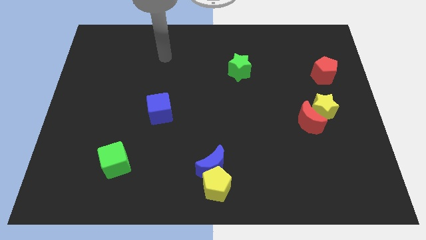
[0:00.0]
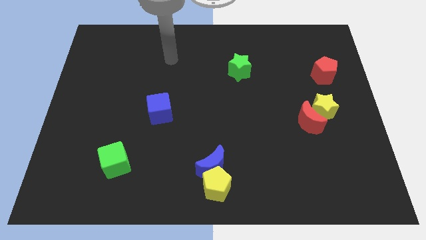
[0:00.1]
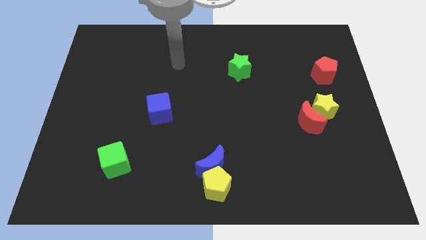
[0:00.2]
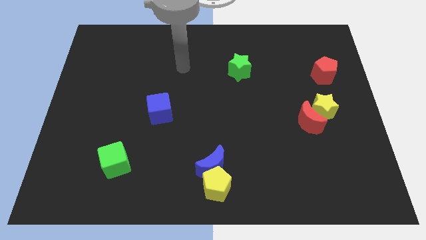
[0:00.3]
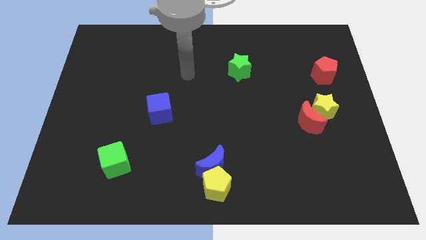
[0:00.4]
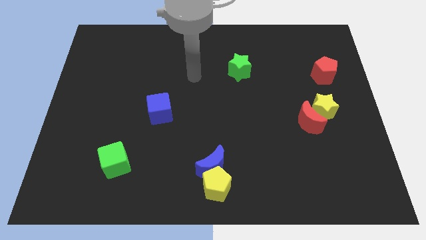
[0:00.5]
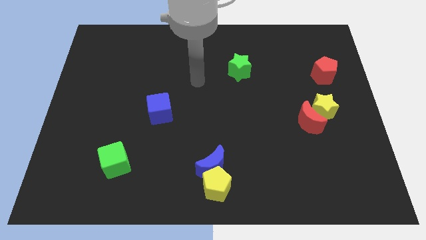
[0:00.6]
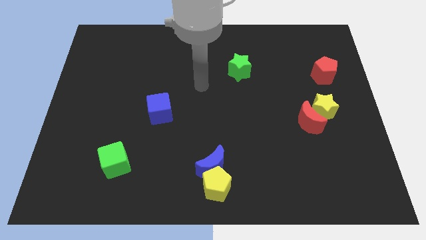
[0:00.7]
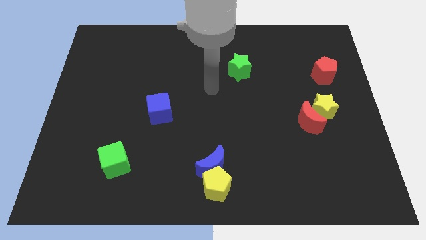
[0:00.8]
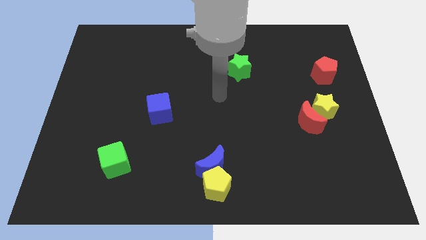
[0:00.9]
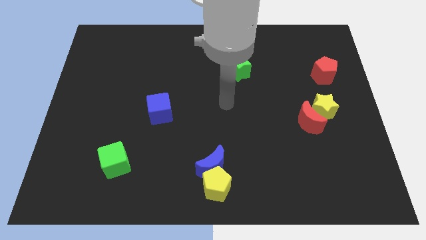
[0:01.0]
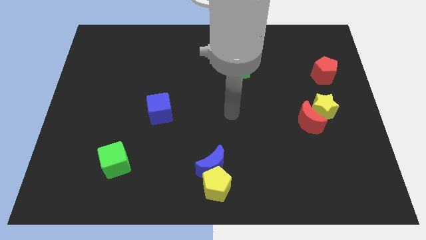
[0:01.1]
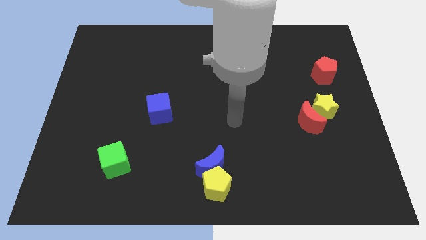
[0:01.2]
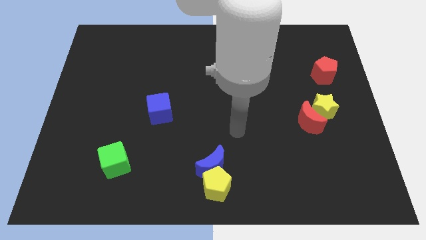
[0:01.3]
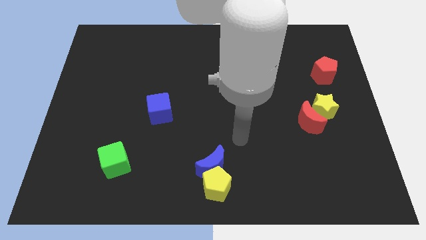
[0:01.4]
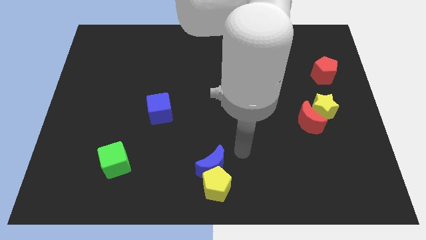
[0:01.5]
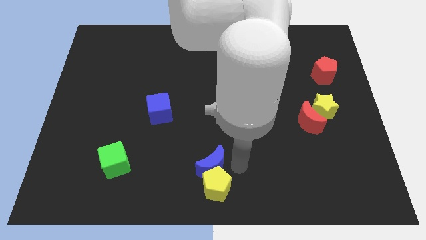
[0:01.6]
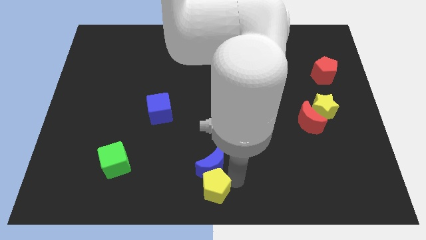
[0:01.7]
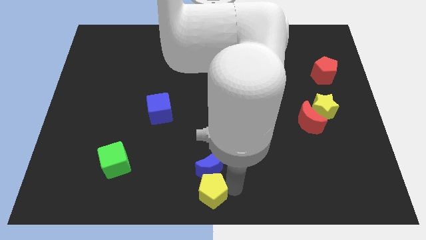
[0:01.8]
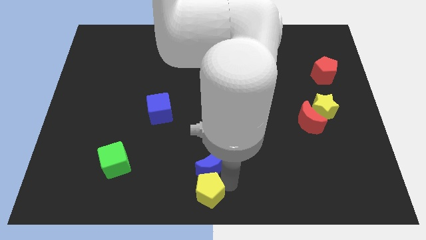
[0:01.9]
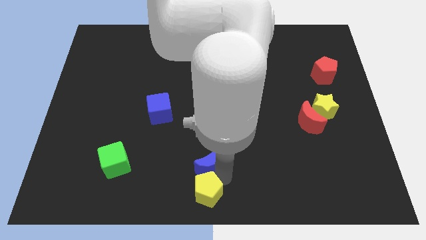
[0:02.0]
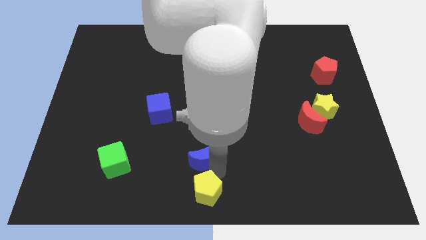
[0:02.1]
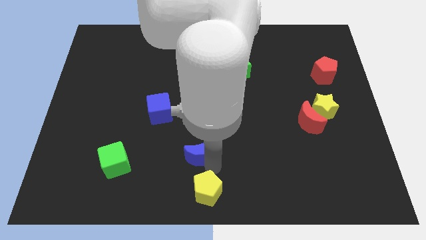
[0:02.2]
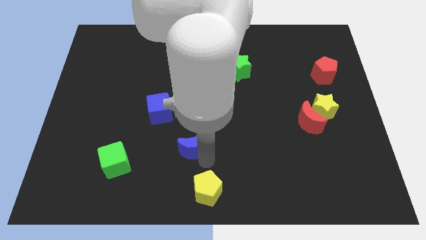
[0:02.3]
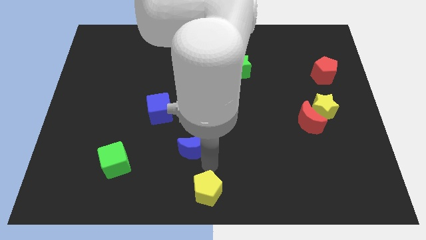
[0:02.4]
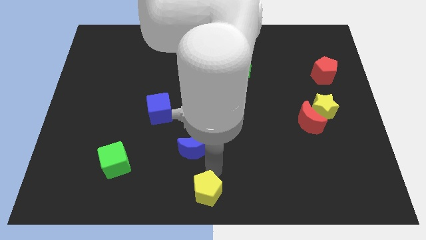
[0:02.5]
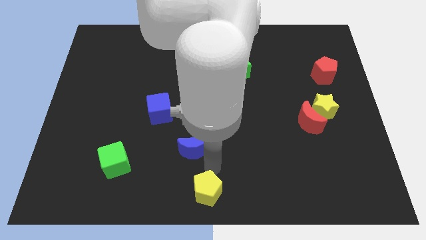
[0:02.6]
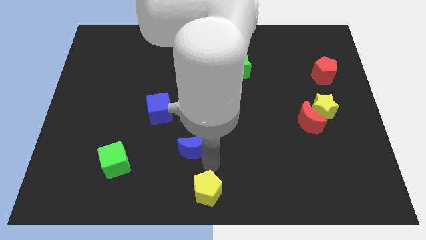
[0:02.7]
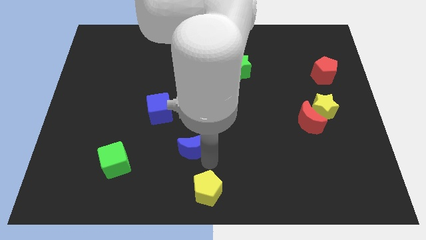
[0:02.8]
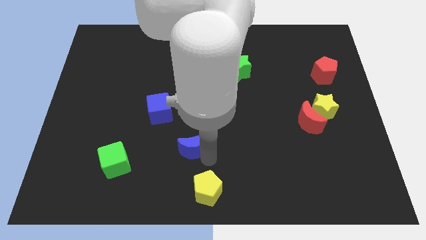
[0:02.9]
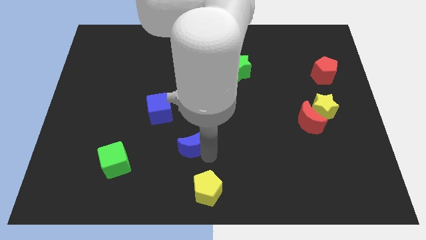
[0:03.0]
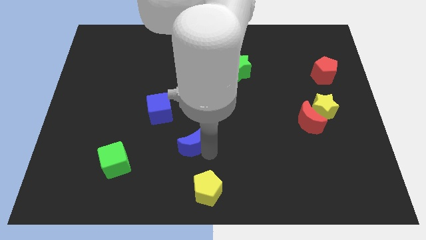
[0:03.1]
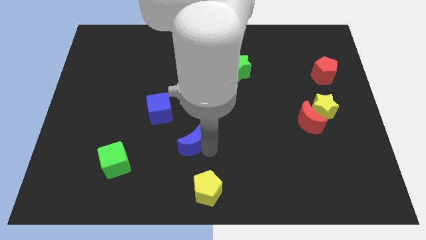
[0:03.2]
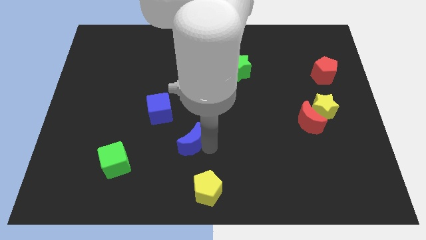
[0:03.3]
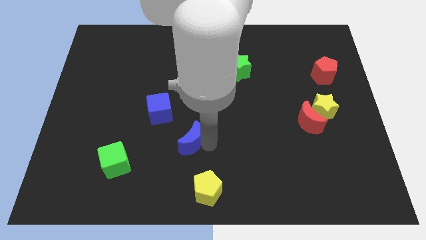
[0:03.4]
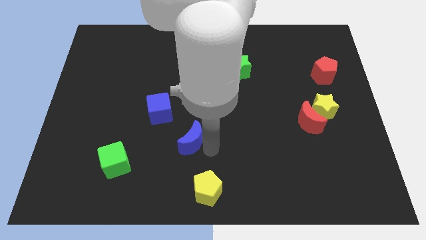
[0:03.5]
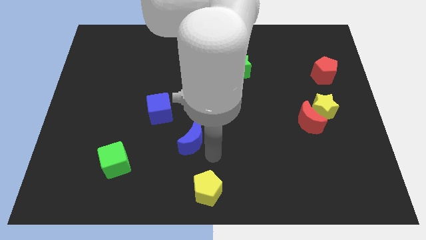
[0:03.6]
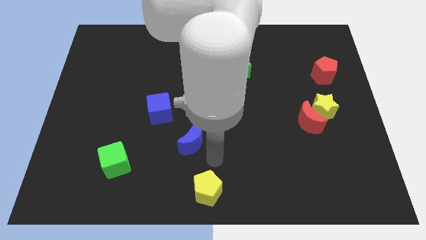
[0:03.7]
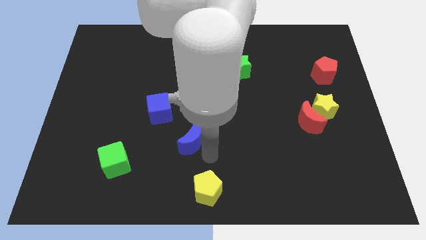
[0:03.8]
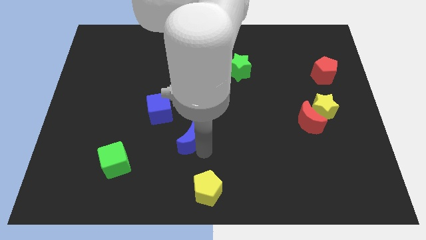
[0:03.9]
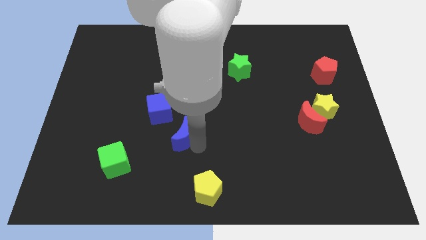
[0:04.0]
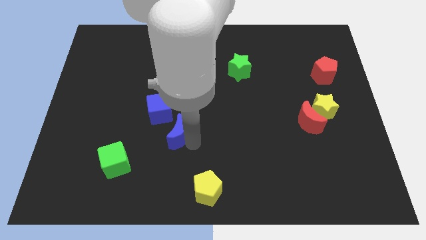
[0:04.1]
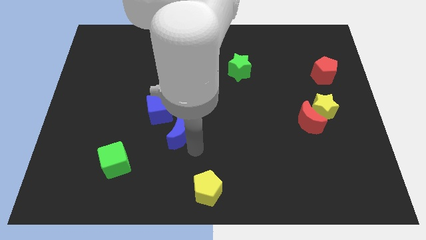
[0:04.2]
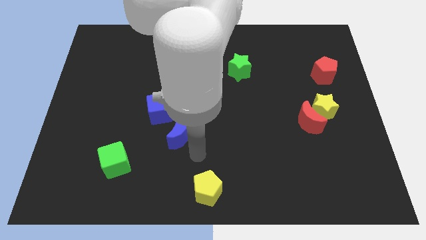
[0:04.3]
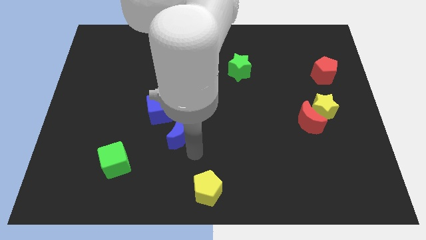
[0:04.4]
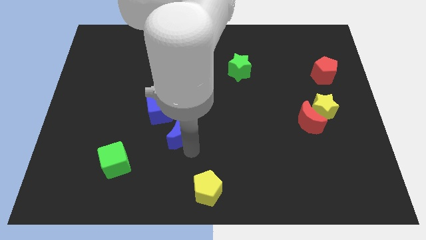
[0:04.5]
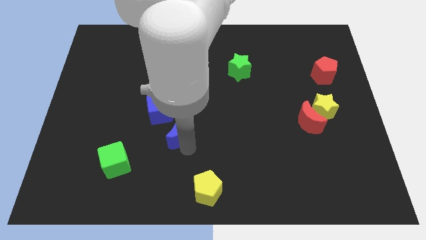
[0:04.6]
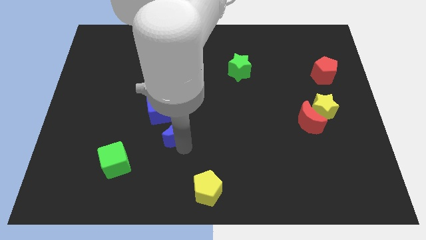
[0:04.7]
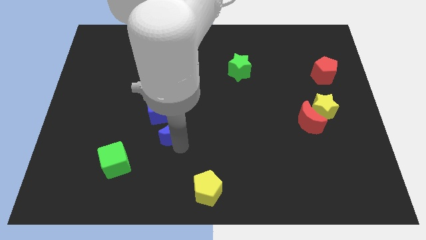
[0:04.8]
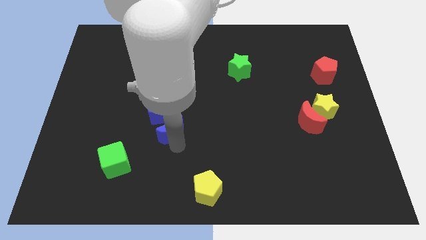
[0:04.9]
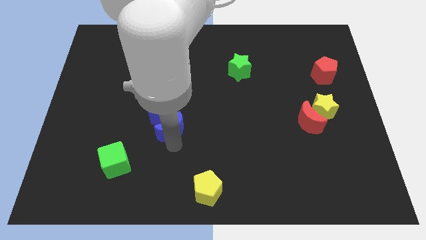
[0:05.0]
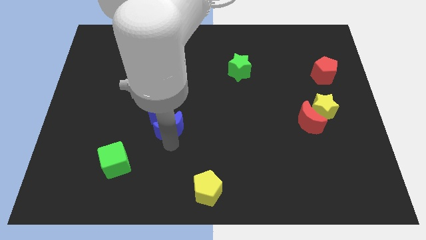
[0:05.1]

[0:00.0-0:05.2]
slide the blue moon towards the blue cube

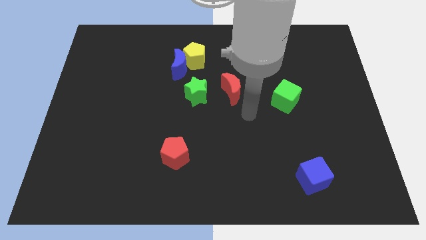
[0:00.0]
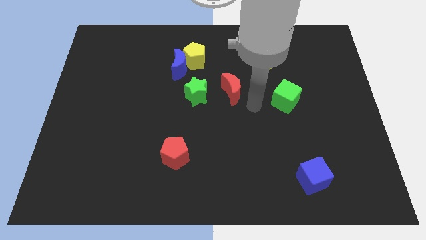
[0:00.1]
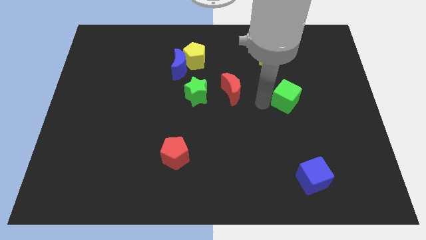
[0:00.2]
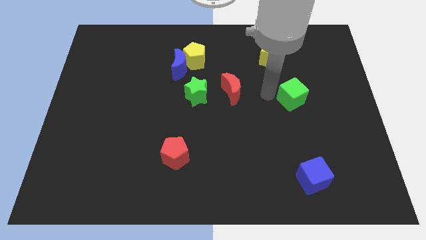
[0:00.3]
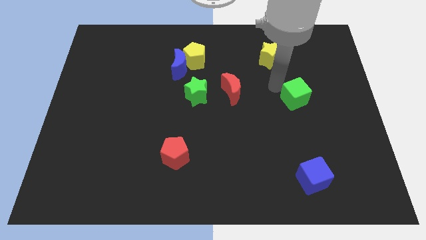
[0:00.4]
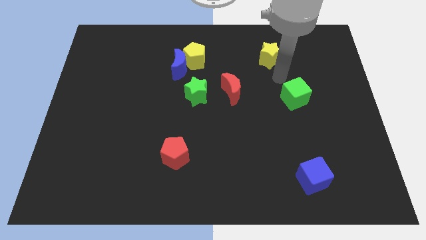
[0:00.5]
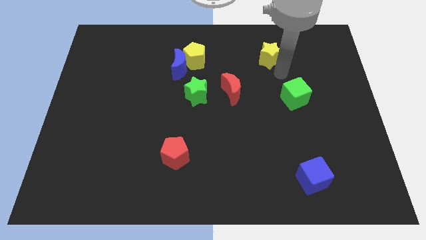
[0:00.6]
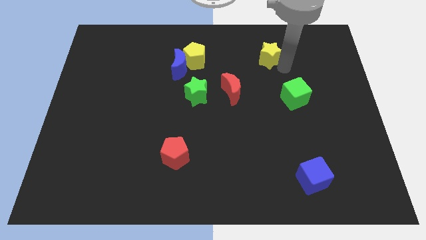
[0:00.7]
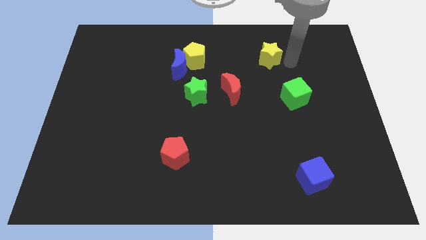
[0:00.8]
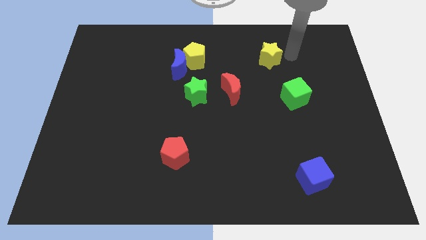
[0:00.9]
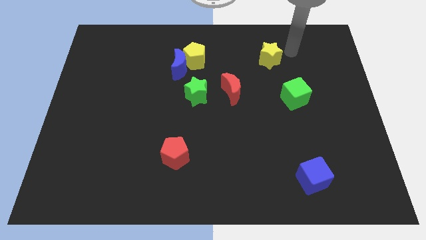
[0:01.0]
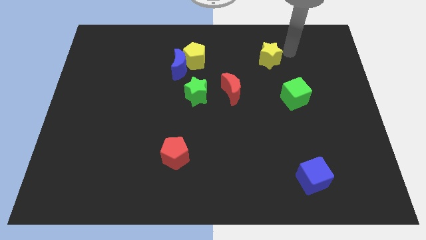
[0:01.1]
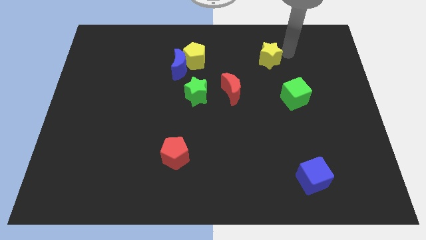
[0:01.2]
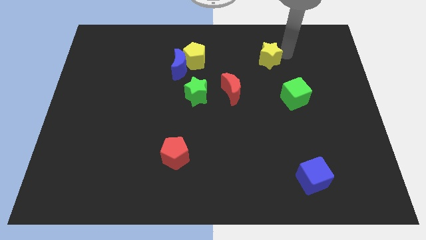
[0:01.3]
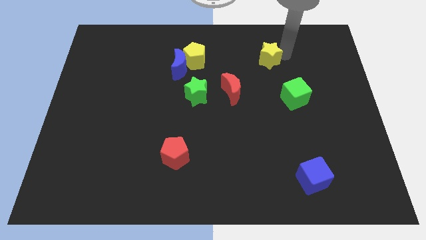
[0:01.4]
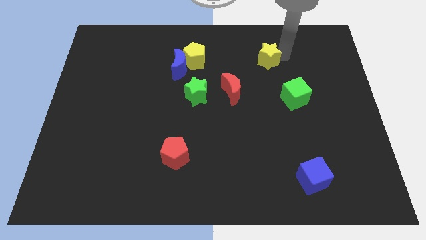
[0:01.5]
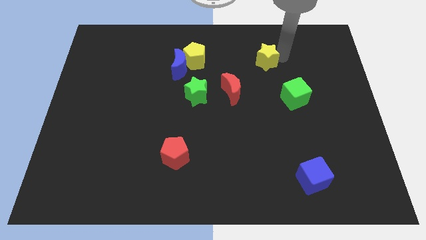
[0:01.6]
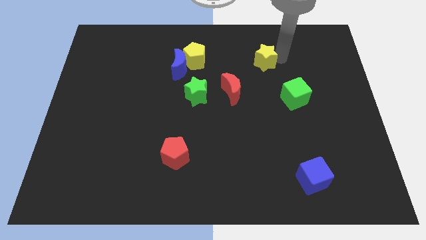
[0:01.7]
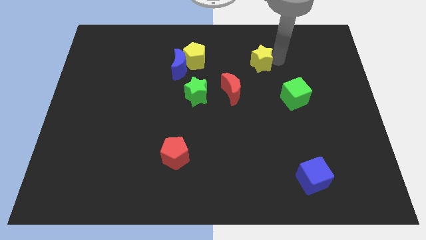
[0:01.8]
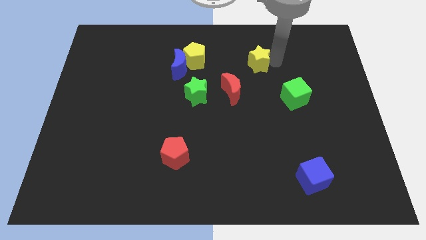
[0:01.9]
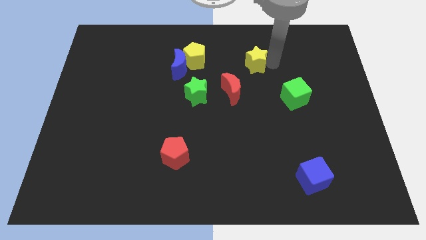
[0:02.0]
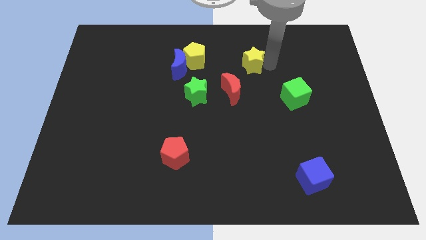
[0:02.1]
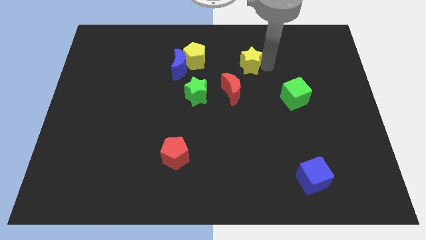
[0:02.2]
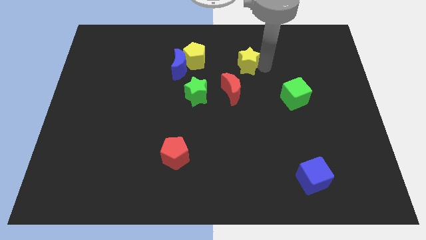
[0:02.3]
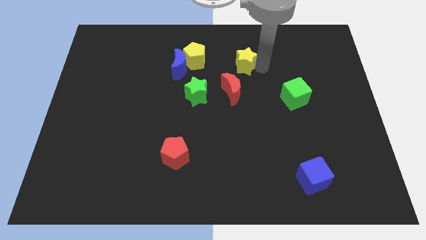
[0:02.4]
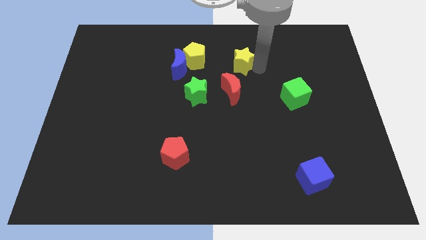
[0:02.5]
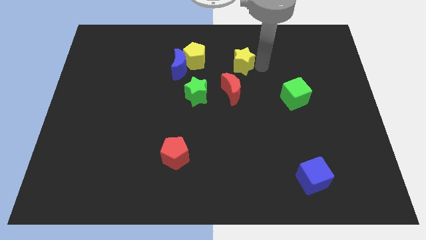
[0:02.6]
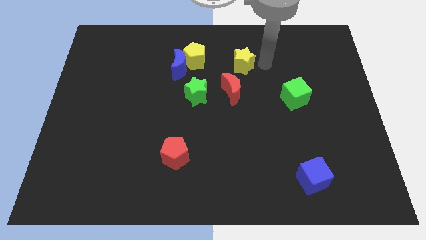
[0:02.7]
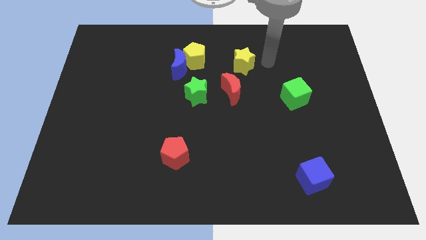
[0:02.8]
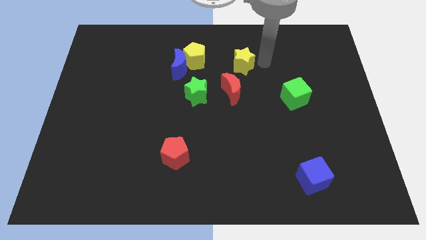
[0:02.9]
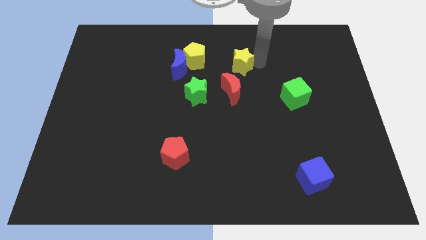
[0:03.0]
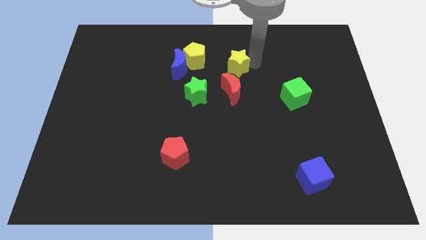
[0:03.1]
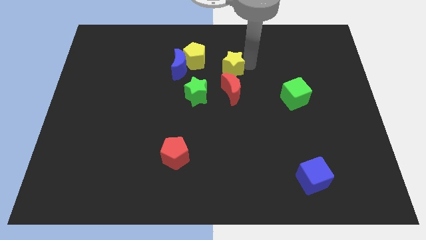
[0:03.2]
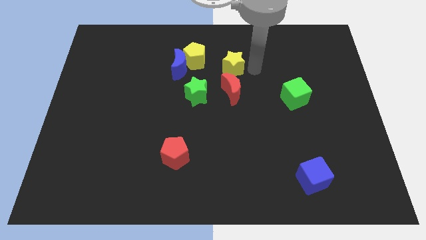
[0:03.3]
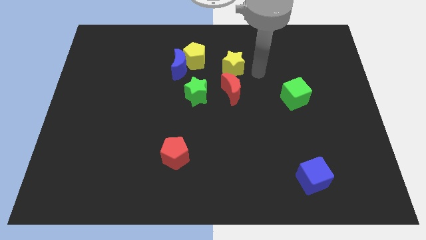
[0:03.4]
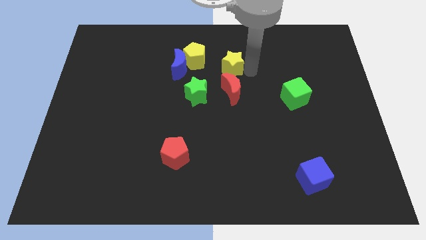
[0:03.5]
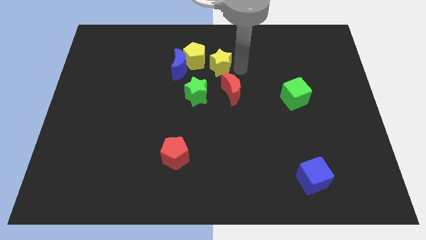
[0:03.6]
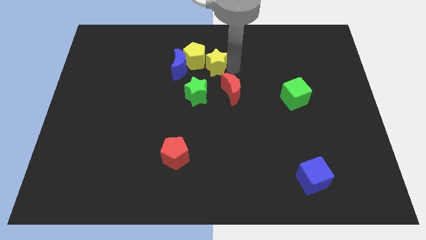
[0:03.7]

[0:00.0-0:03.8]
slide the yellow star next to the yellow pentagon
